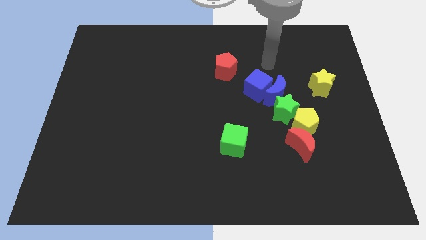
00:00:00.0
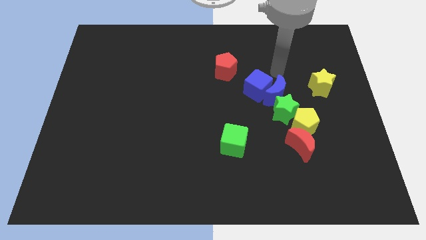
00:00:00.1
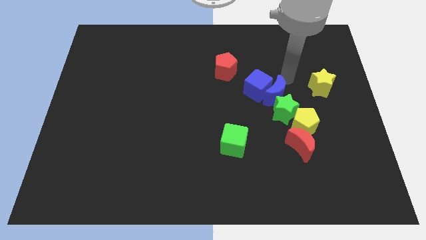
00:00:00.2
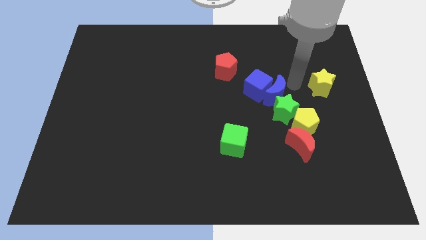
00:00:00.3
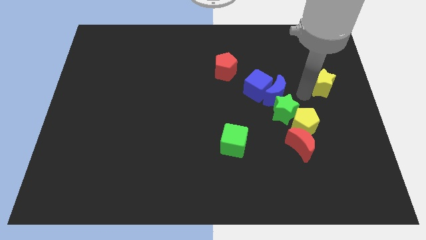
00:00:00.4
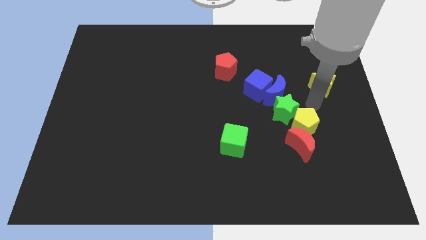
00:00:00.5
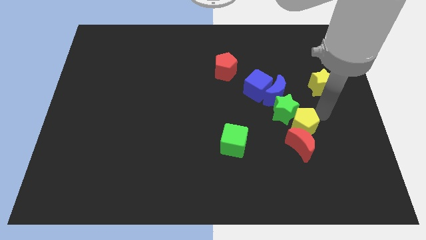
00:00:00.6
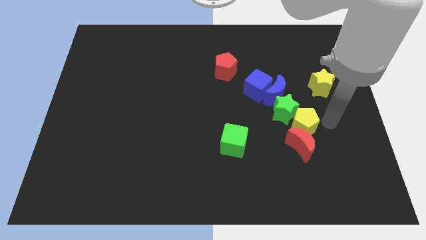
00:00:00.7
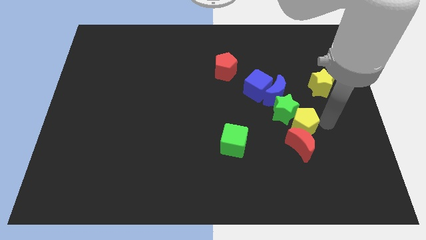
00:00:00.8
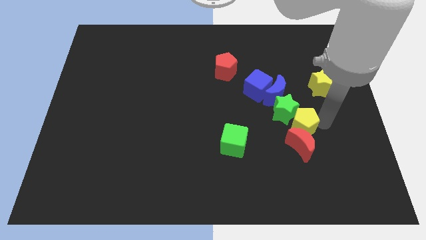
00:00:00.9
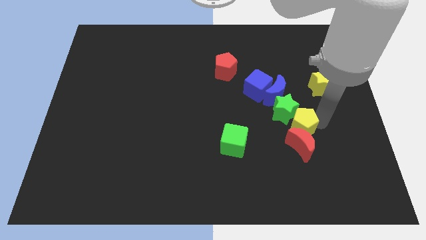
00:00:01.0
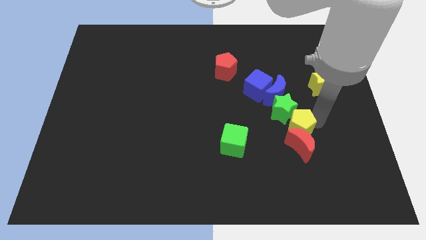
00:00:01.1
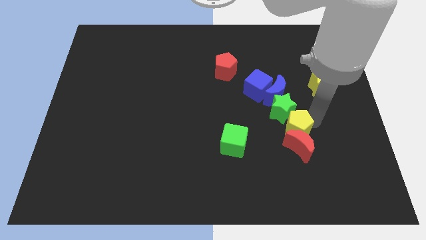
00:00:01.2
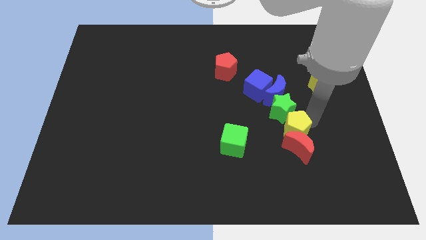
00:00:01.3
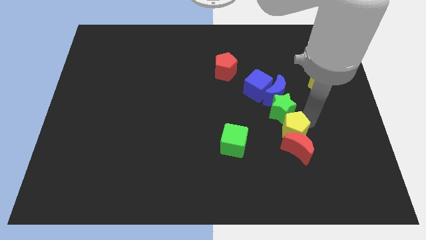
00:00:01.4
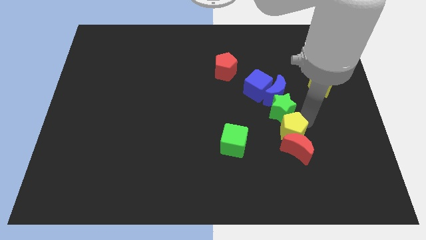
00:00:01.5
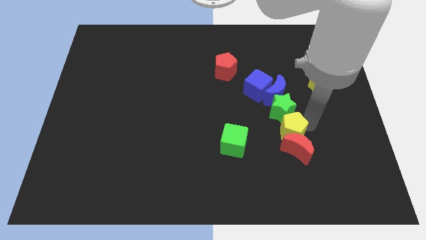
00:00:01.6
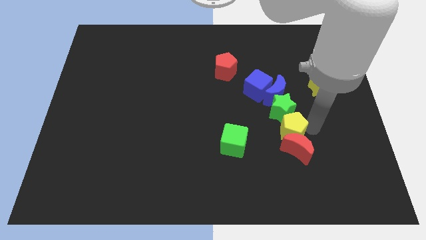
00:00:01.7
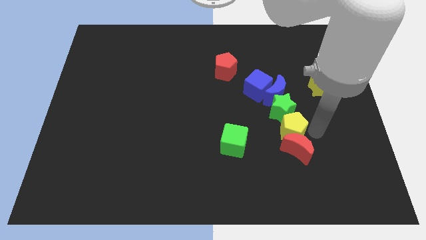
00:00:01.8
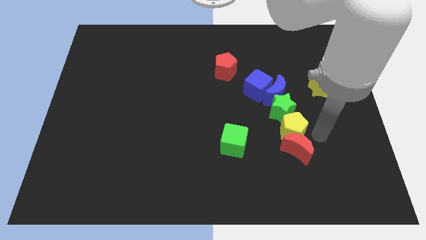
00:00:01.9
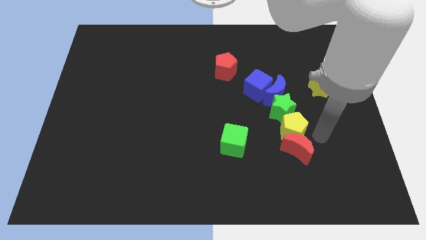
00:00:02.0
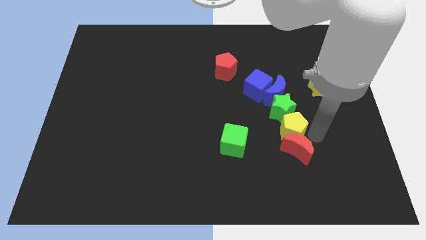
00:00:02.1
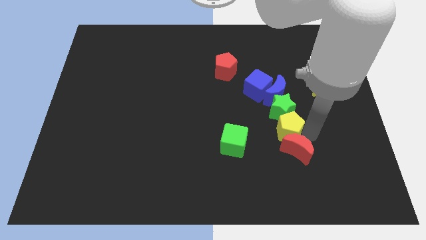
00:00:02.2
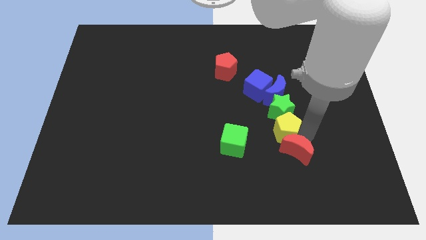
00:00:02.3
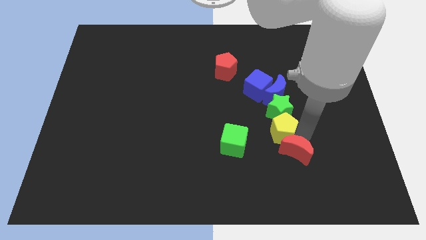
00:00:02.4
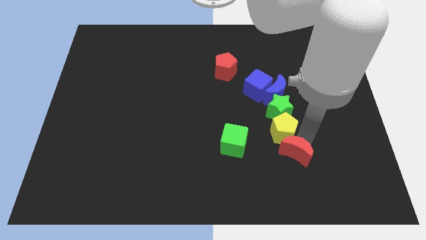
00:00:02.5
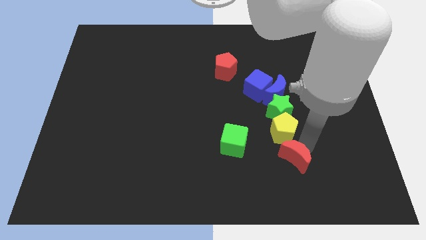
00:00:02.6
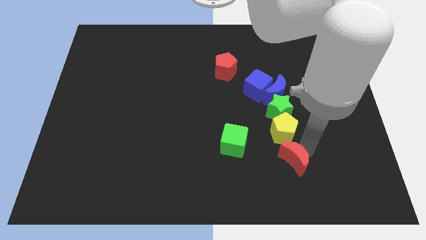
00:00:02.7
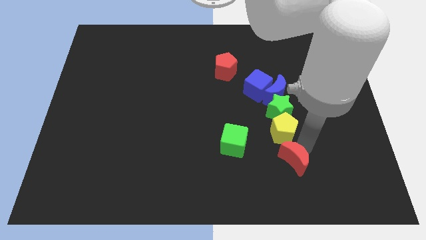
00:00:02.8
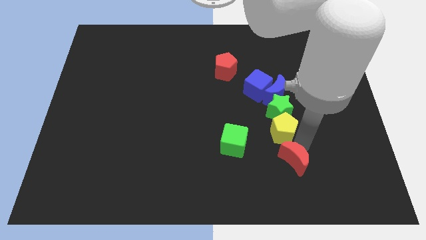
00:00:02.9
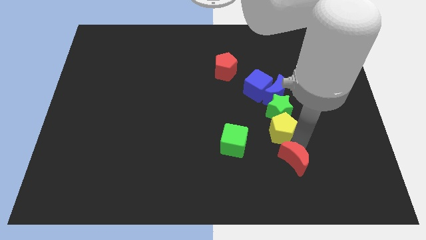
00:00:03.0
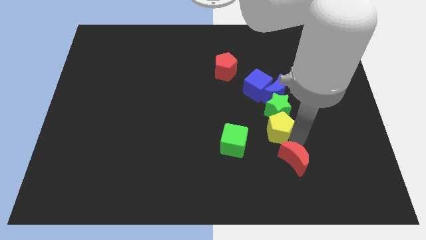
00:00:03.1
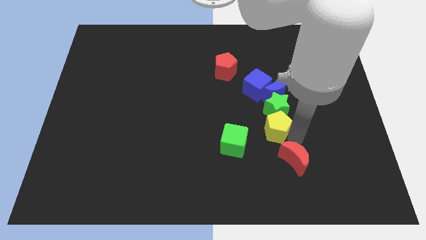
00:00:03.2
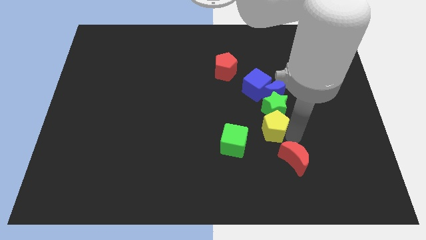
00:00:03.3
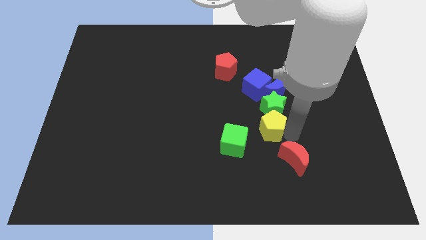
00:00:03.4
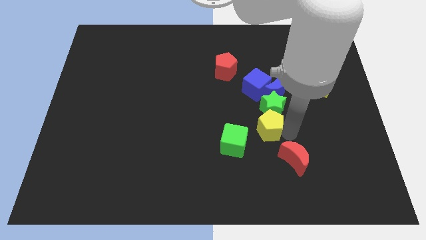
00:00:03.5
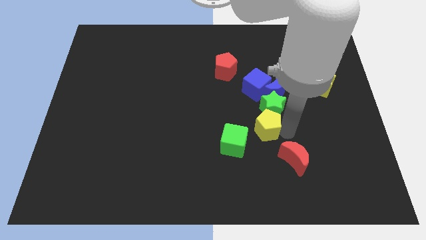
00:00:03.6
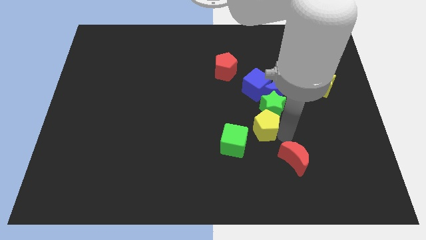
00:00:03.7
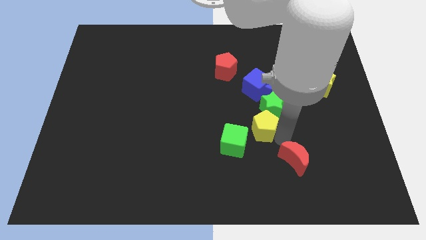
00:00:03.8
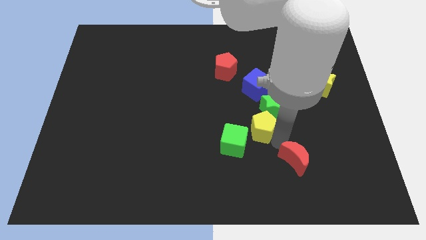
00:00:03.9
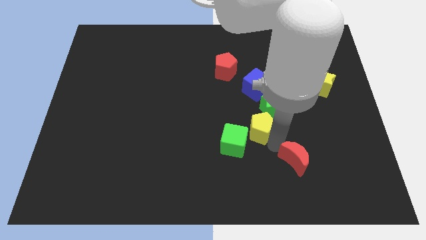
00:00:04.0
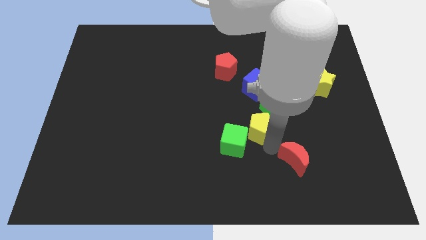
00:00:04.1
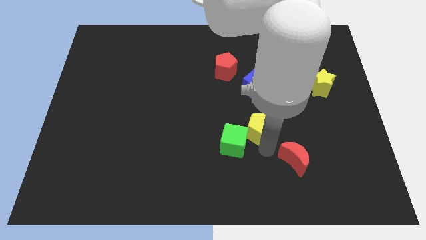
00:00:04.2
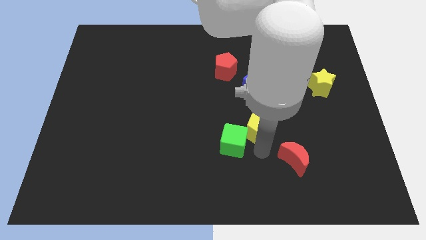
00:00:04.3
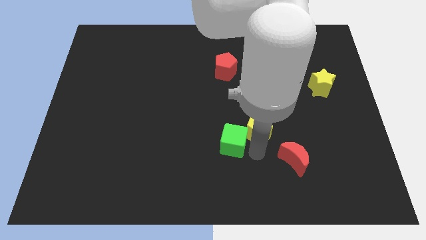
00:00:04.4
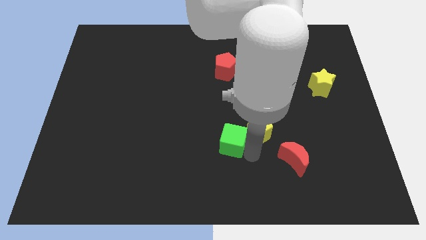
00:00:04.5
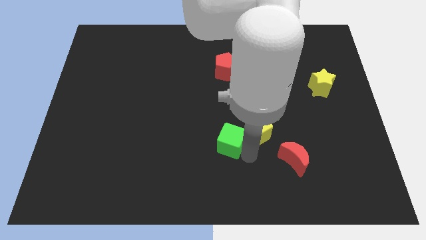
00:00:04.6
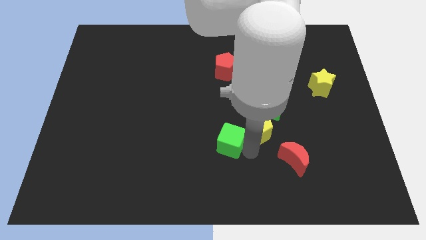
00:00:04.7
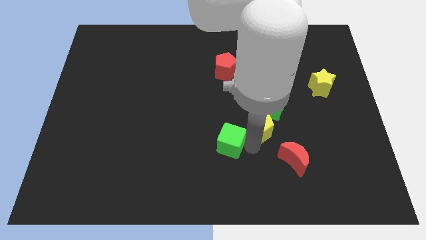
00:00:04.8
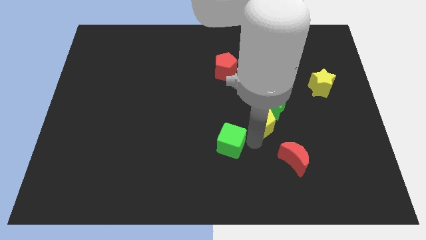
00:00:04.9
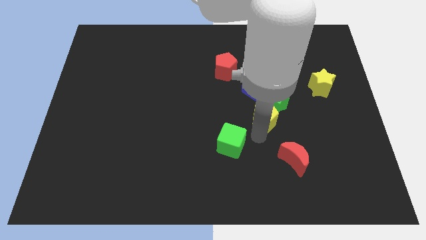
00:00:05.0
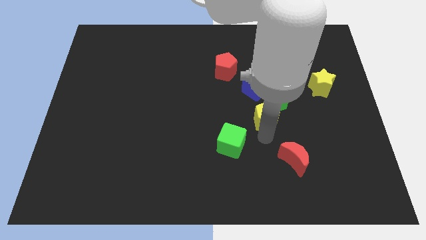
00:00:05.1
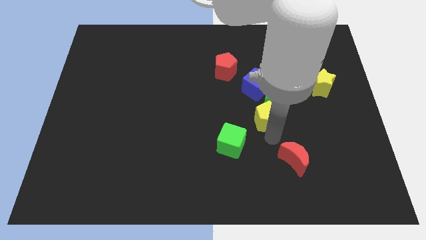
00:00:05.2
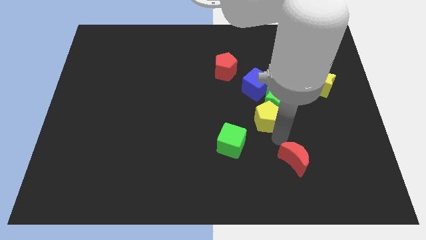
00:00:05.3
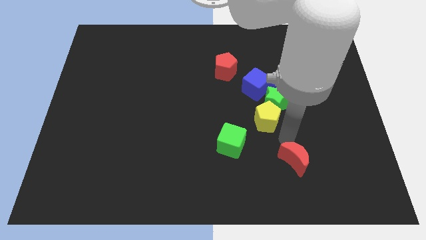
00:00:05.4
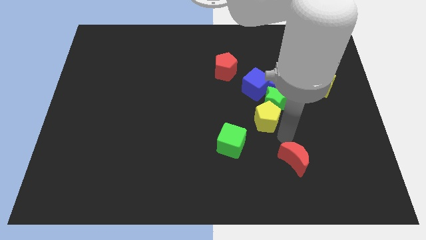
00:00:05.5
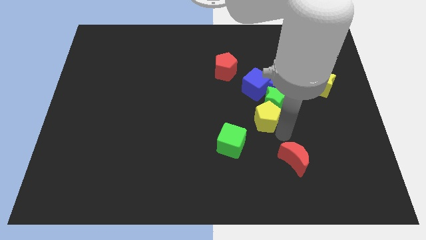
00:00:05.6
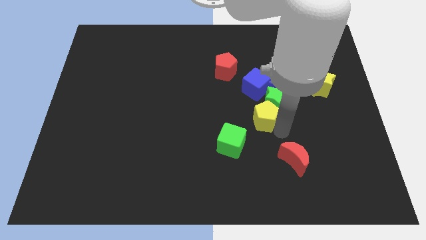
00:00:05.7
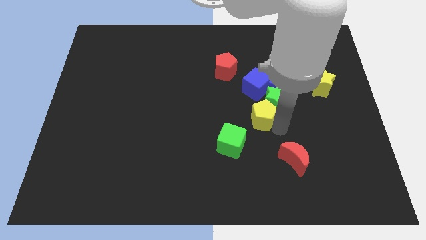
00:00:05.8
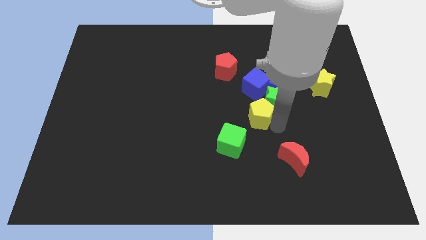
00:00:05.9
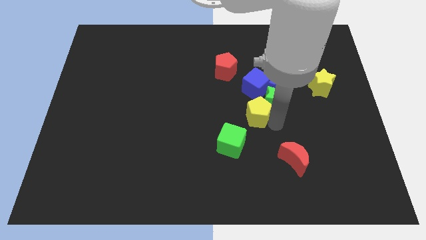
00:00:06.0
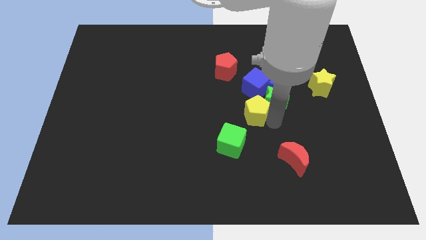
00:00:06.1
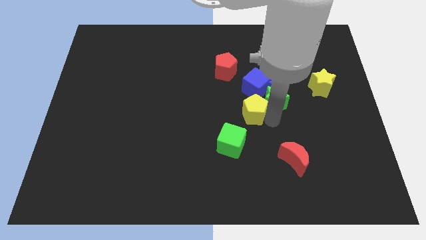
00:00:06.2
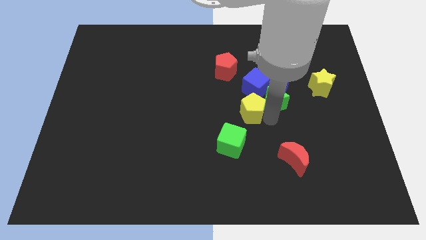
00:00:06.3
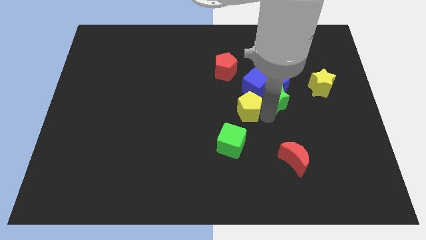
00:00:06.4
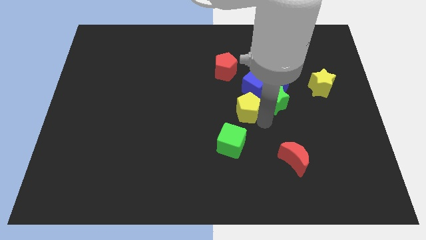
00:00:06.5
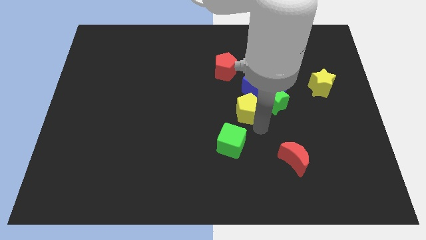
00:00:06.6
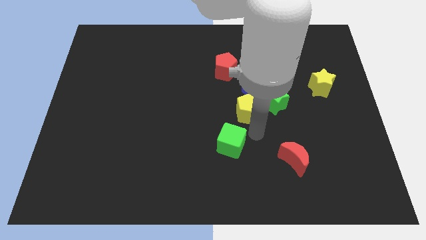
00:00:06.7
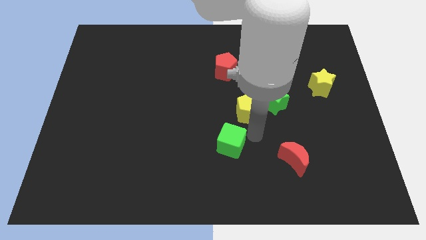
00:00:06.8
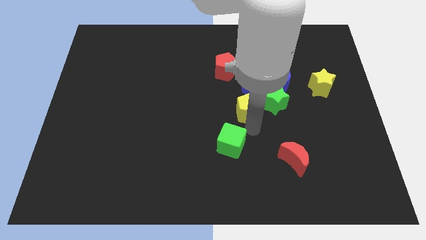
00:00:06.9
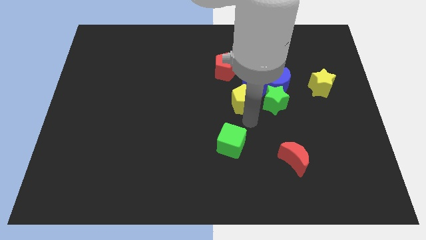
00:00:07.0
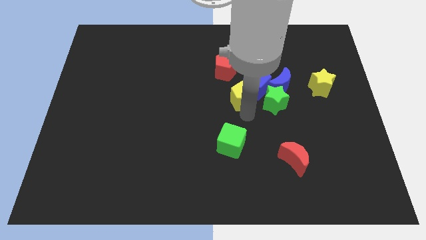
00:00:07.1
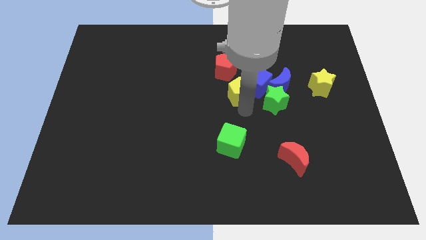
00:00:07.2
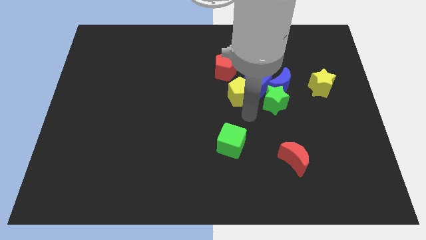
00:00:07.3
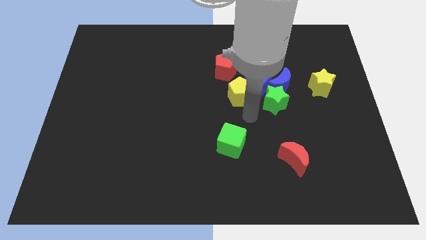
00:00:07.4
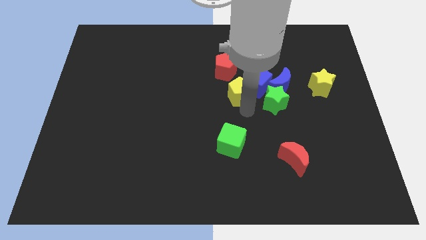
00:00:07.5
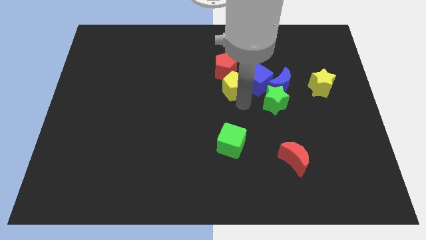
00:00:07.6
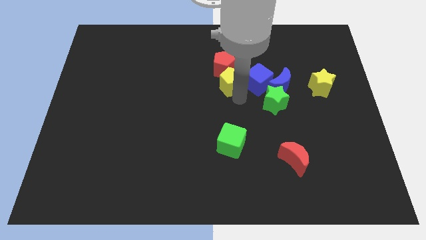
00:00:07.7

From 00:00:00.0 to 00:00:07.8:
slide the yellow pentagon to the red pentagon

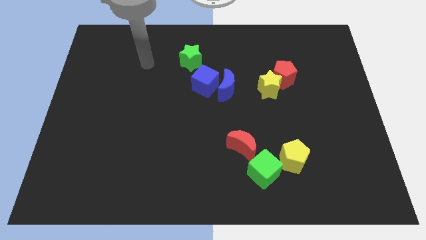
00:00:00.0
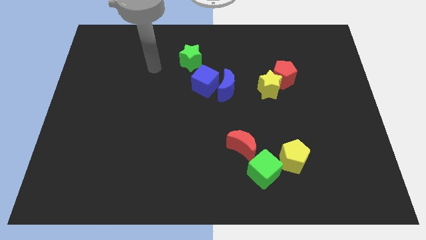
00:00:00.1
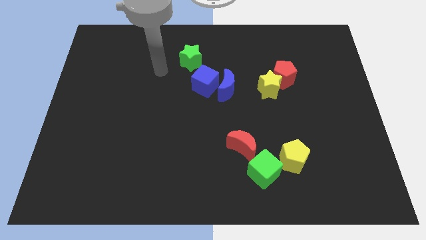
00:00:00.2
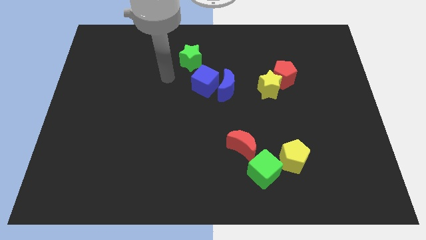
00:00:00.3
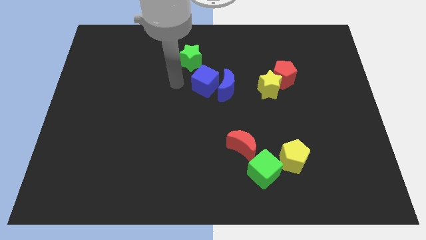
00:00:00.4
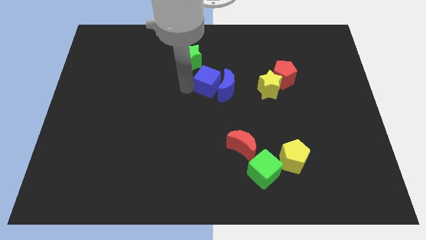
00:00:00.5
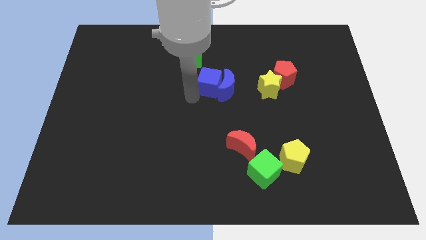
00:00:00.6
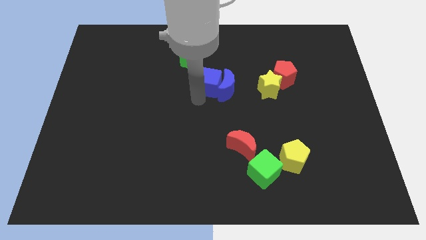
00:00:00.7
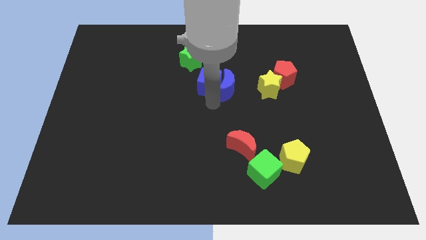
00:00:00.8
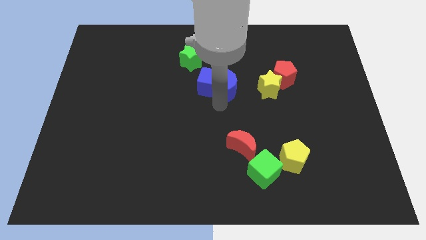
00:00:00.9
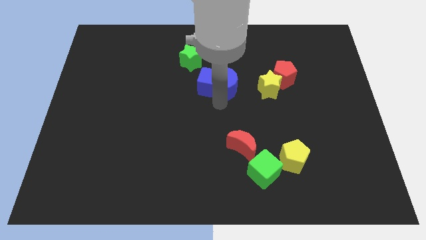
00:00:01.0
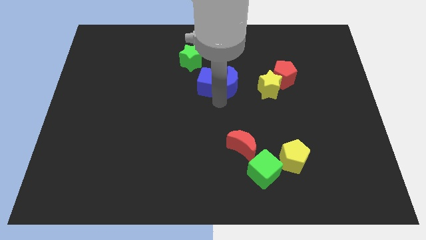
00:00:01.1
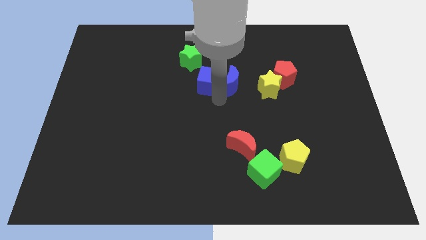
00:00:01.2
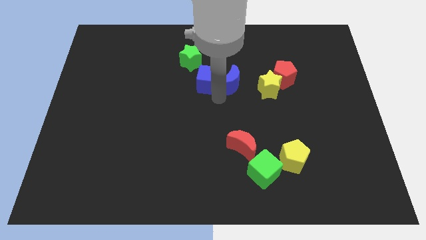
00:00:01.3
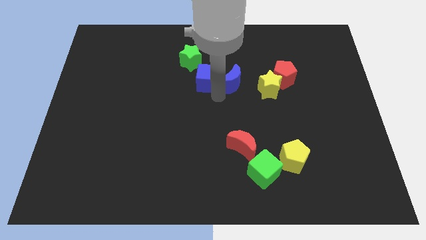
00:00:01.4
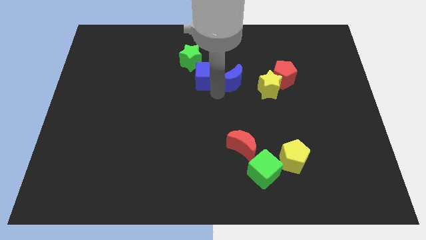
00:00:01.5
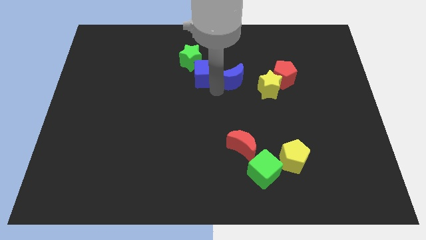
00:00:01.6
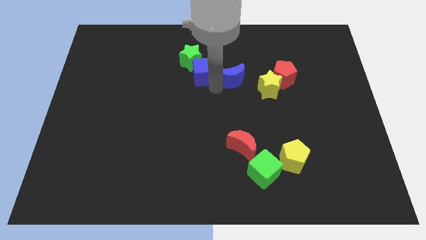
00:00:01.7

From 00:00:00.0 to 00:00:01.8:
move the blue cube towards the green star
